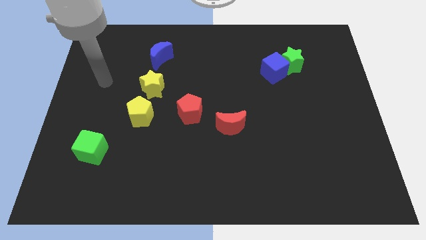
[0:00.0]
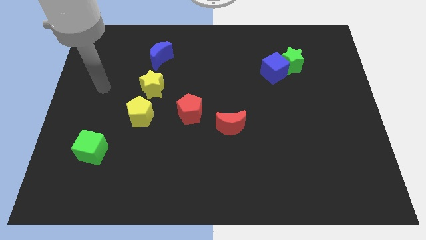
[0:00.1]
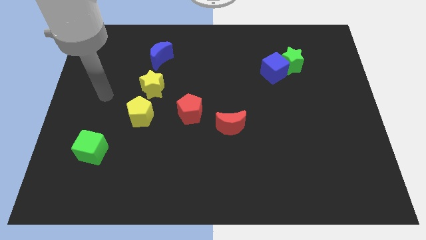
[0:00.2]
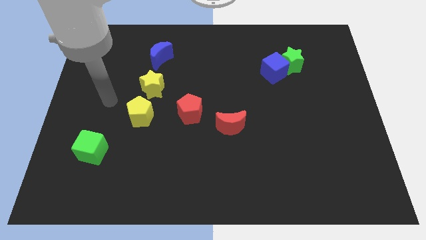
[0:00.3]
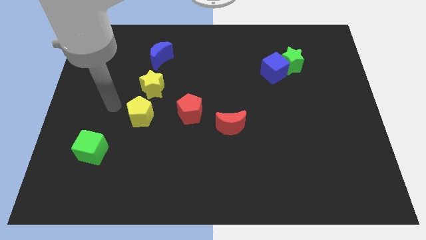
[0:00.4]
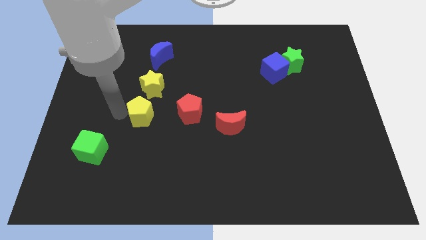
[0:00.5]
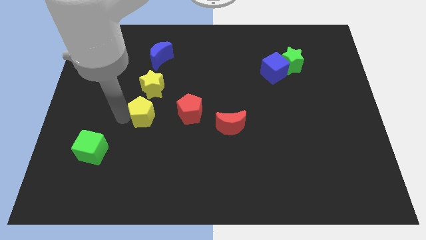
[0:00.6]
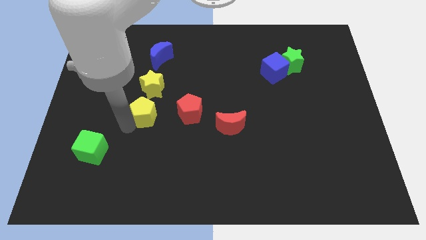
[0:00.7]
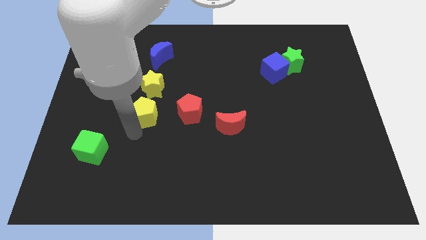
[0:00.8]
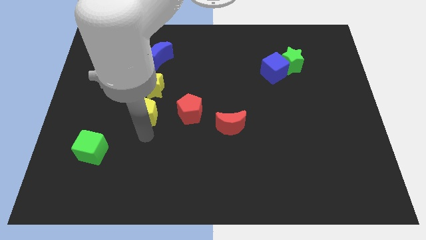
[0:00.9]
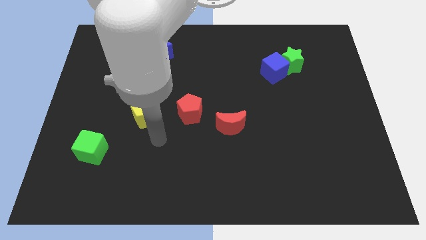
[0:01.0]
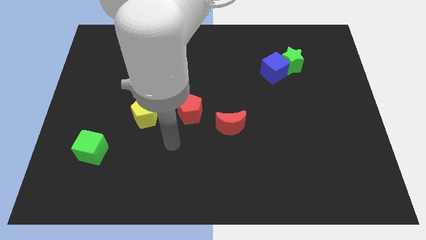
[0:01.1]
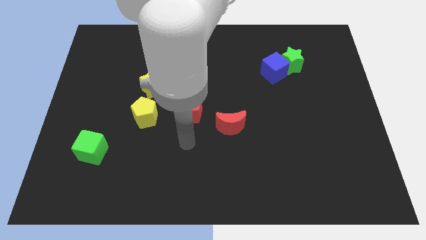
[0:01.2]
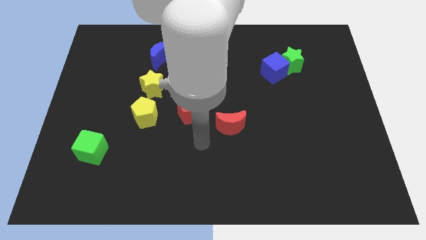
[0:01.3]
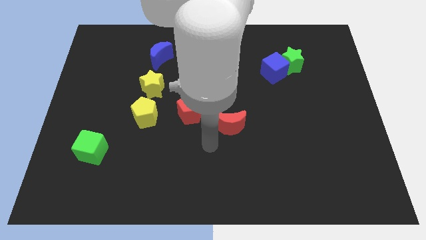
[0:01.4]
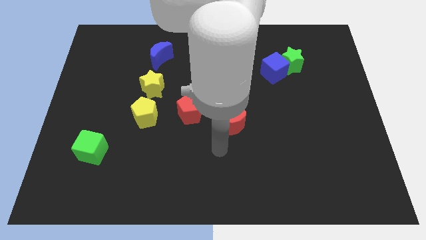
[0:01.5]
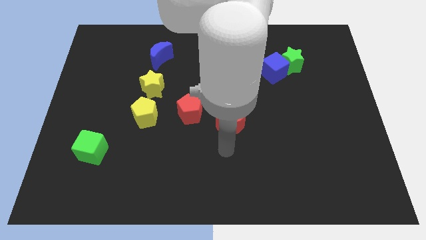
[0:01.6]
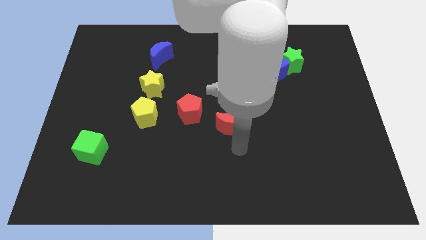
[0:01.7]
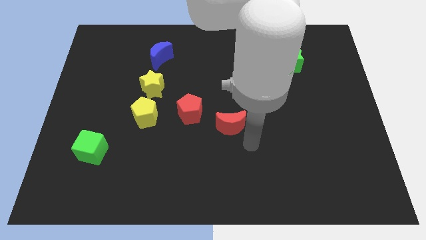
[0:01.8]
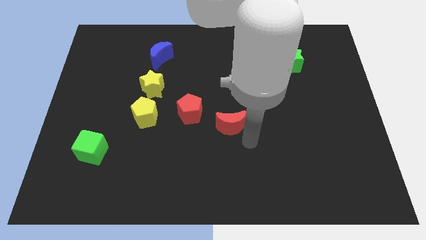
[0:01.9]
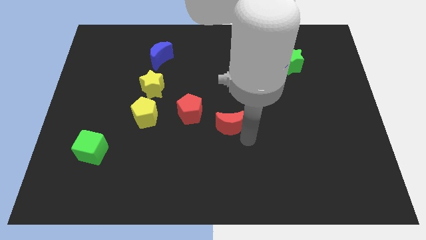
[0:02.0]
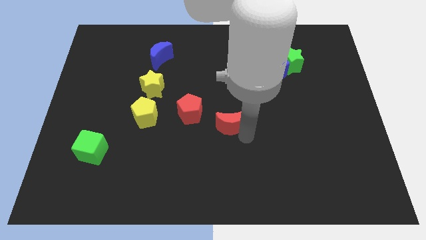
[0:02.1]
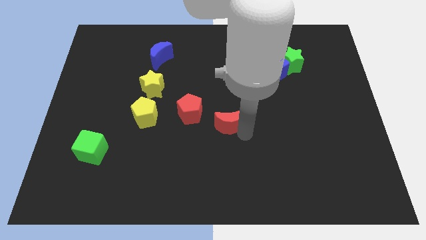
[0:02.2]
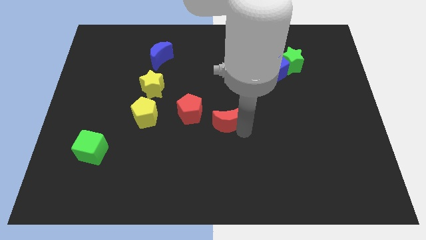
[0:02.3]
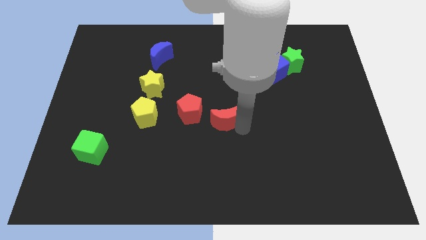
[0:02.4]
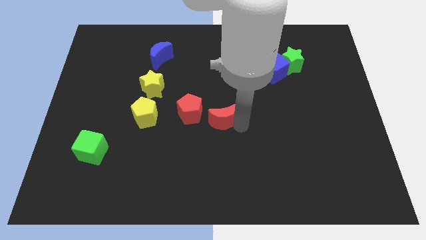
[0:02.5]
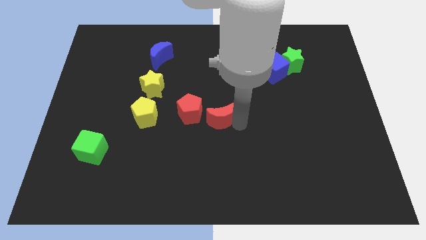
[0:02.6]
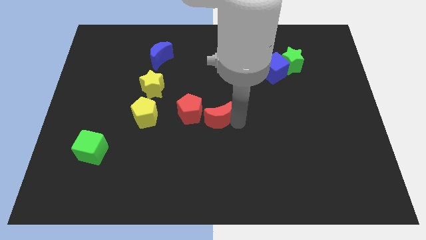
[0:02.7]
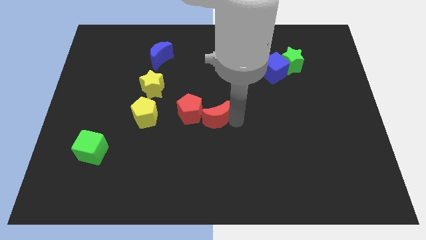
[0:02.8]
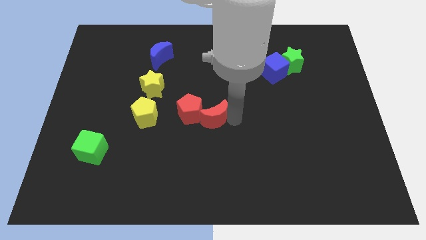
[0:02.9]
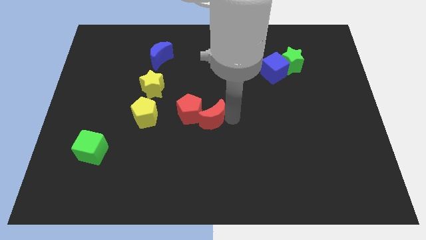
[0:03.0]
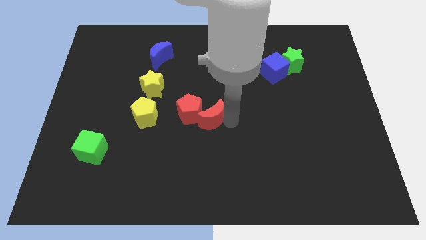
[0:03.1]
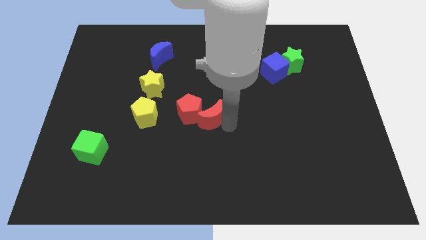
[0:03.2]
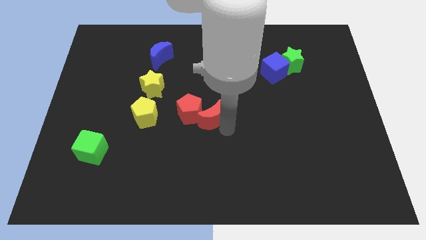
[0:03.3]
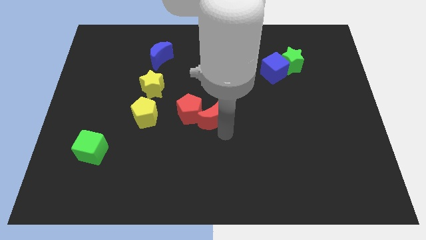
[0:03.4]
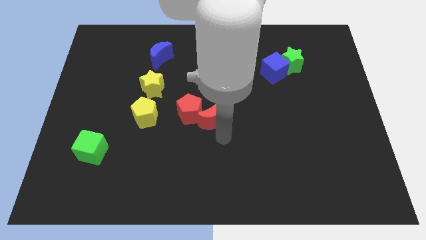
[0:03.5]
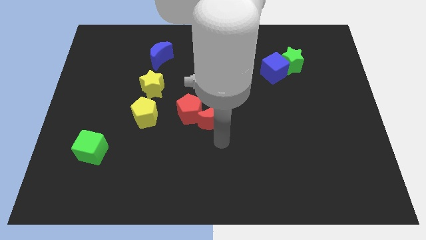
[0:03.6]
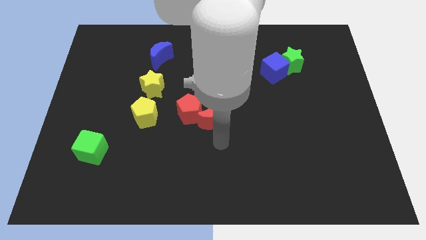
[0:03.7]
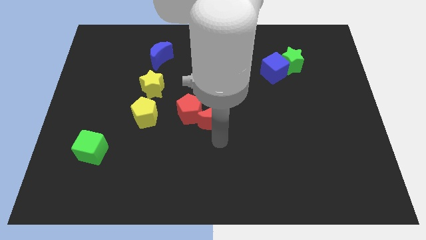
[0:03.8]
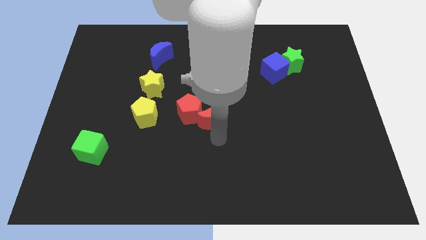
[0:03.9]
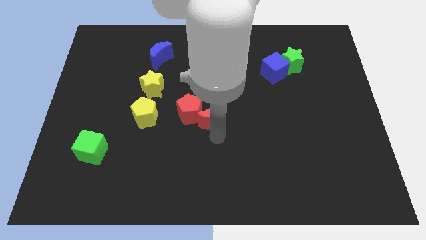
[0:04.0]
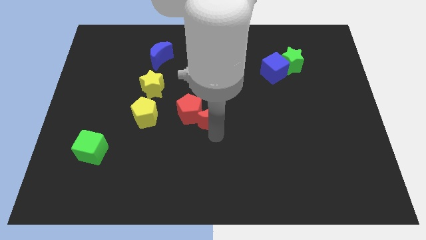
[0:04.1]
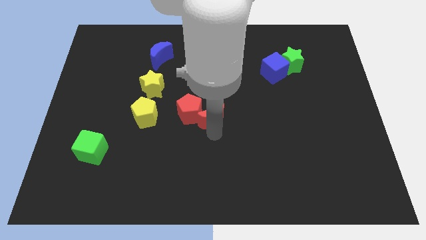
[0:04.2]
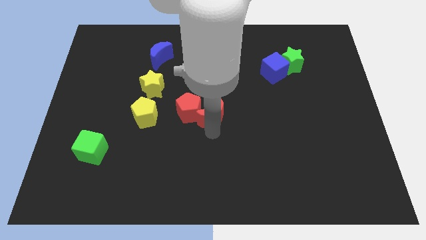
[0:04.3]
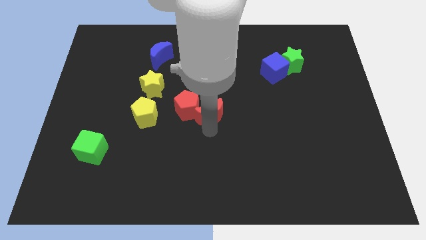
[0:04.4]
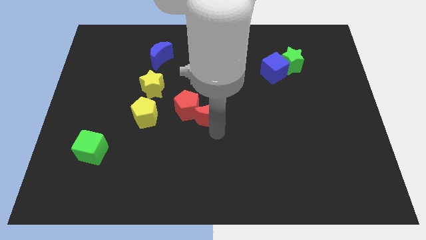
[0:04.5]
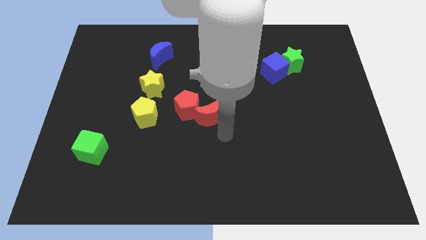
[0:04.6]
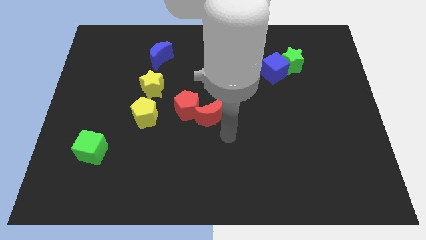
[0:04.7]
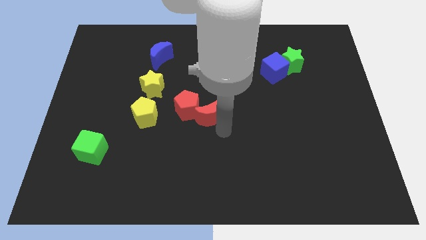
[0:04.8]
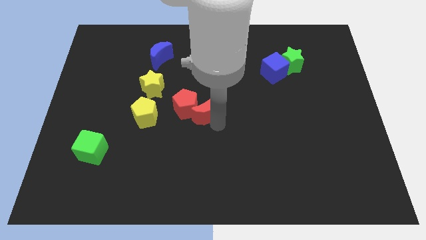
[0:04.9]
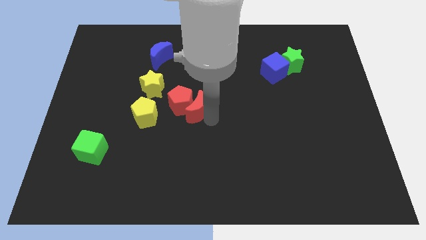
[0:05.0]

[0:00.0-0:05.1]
push the red moon slightly diagonally up and left

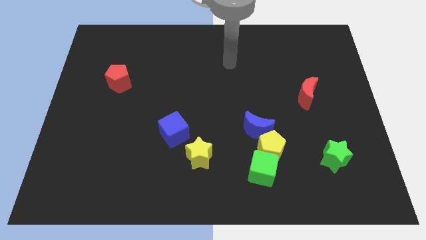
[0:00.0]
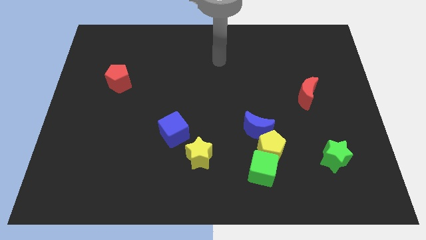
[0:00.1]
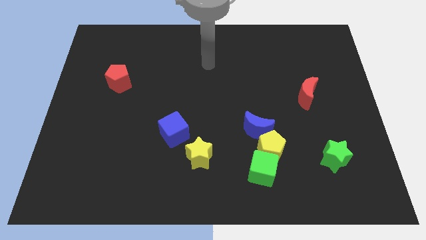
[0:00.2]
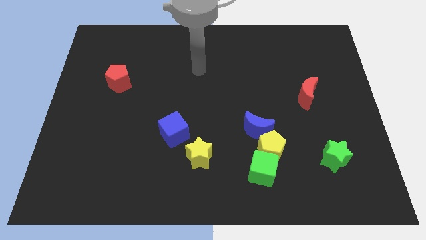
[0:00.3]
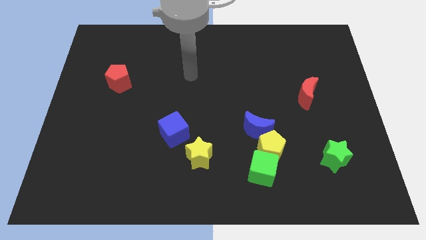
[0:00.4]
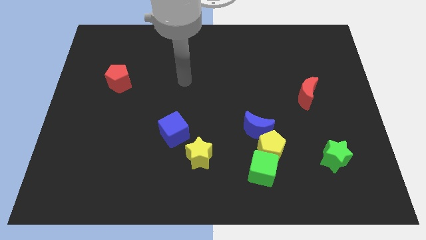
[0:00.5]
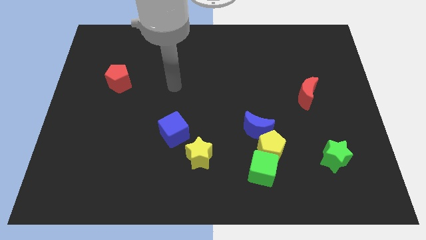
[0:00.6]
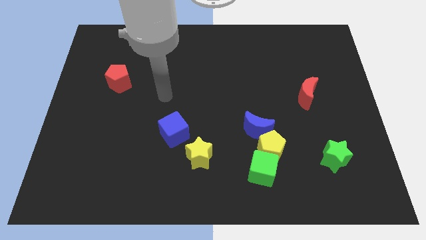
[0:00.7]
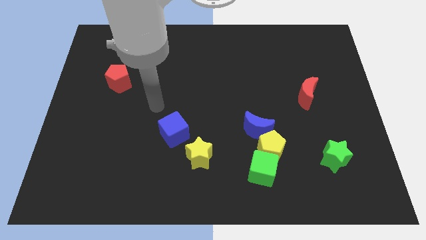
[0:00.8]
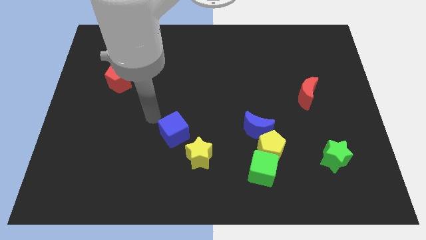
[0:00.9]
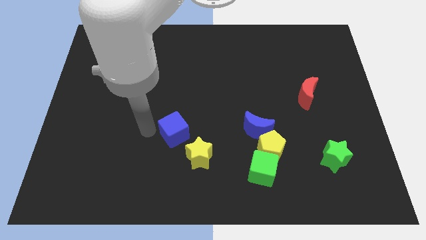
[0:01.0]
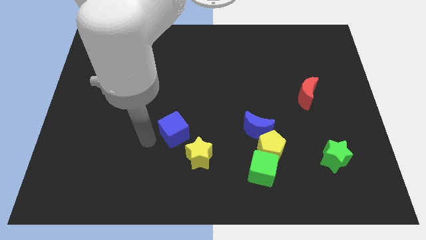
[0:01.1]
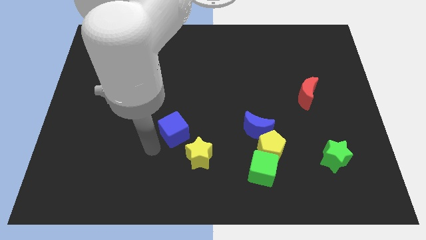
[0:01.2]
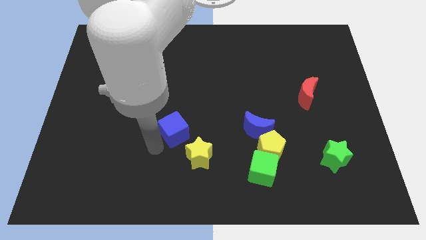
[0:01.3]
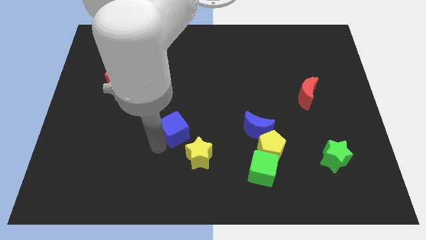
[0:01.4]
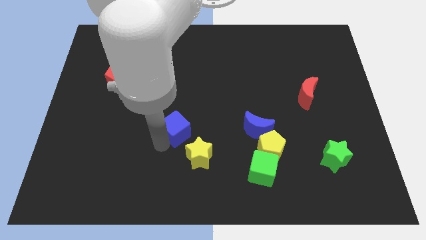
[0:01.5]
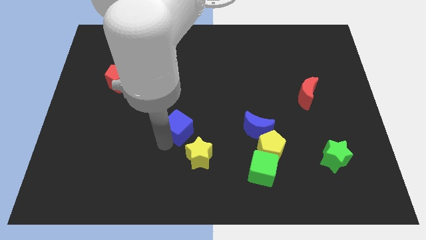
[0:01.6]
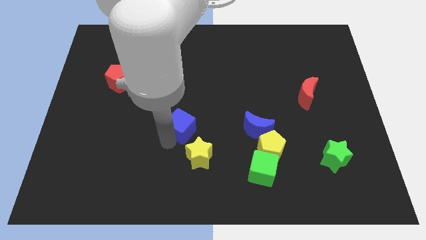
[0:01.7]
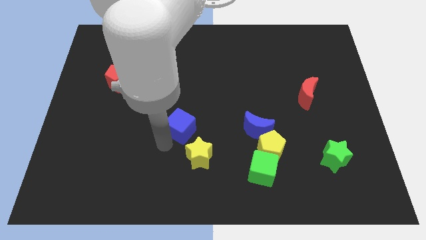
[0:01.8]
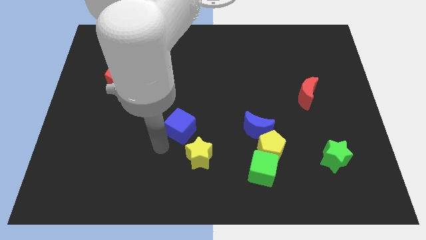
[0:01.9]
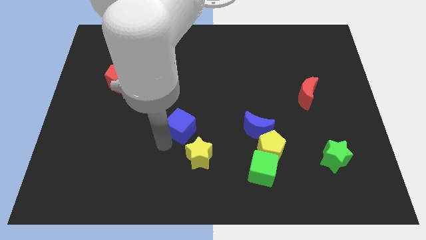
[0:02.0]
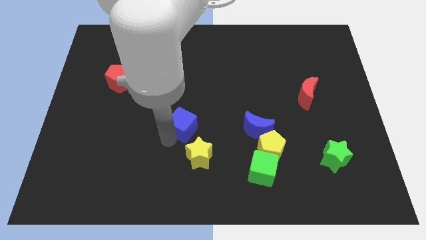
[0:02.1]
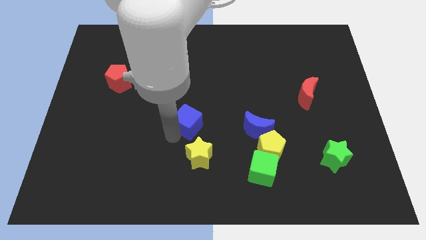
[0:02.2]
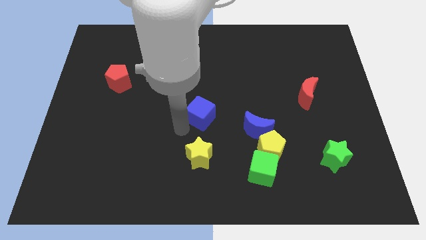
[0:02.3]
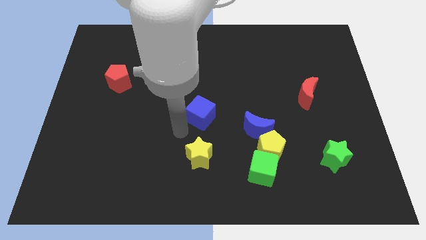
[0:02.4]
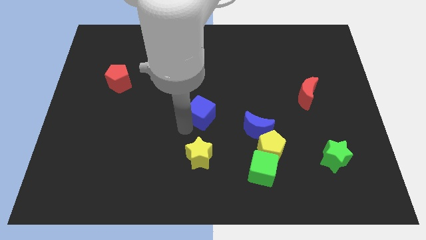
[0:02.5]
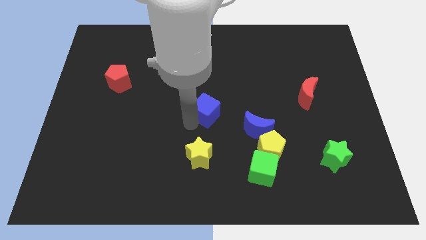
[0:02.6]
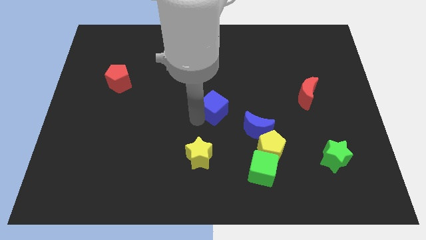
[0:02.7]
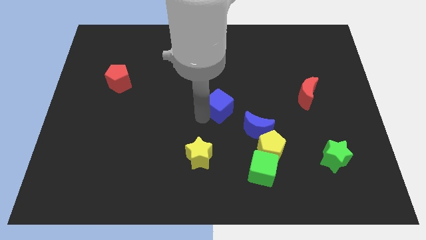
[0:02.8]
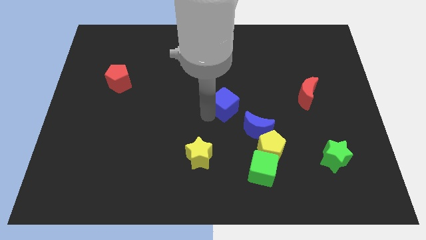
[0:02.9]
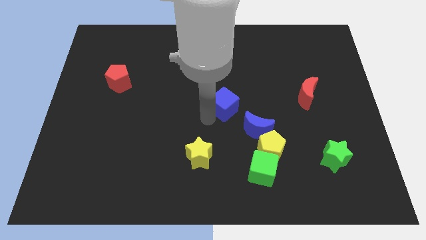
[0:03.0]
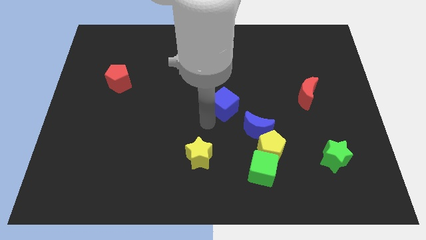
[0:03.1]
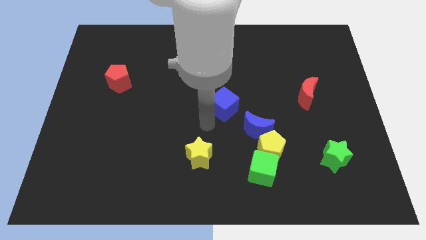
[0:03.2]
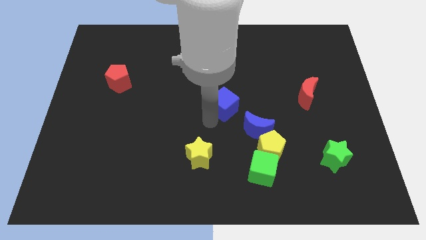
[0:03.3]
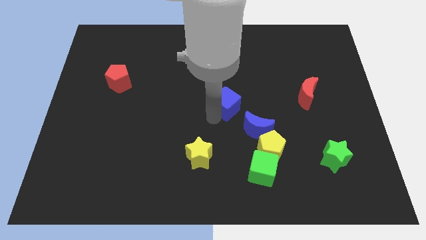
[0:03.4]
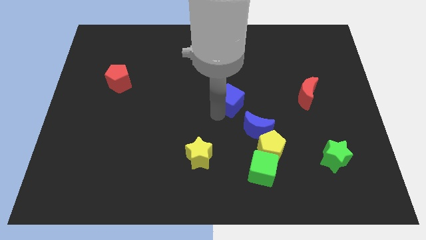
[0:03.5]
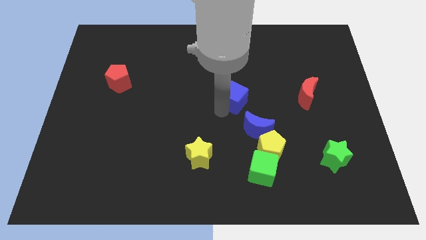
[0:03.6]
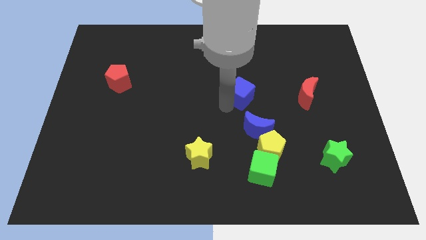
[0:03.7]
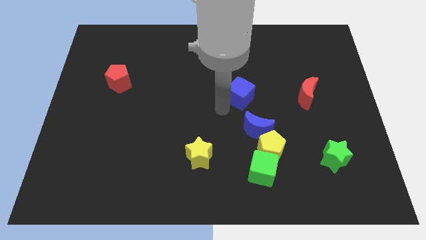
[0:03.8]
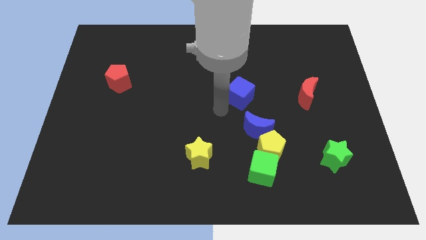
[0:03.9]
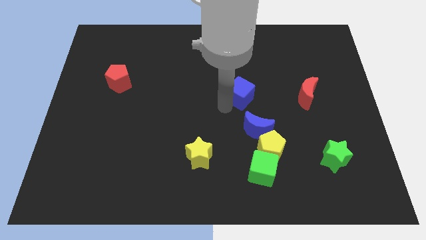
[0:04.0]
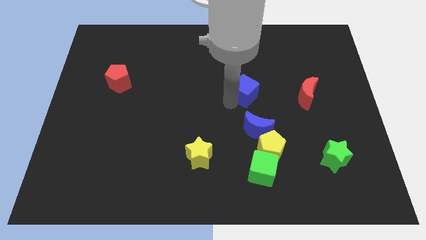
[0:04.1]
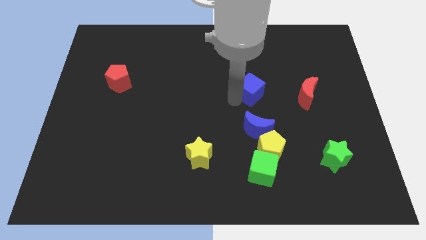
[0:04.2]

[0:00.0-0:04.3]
slide the blue cube diagonally upwards and to the right
